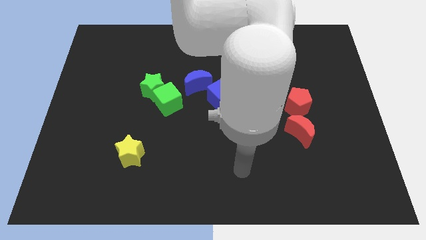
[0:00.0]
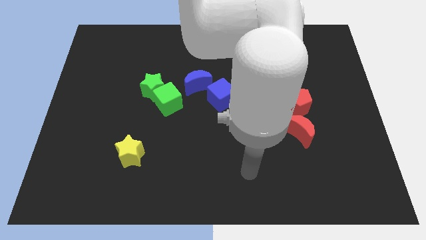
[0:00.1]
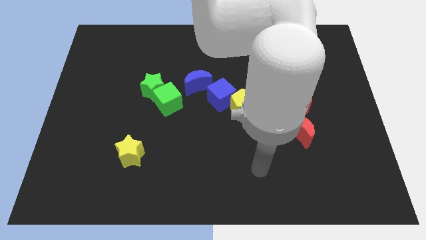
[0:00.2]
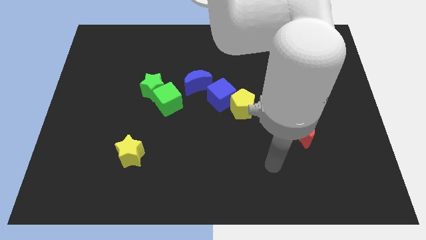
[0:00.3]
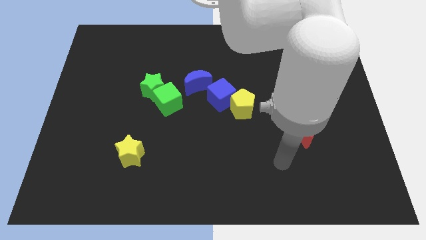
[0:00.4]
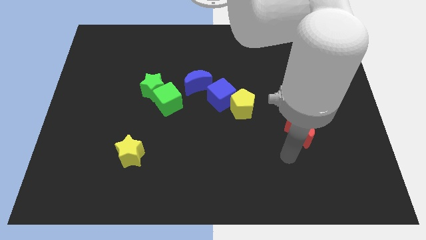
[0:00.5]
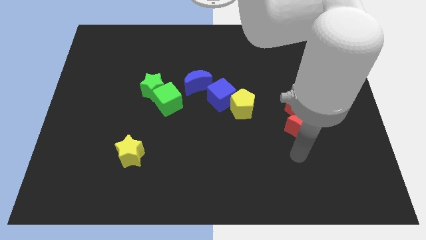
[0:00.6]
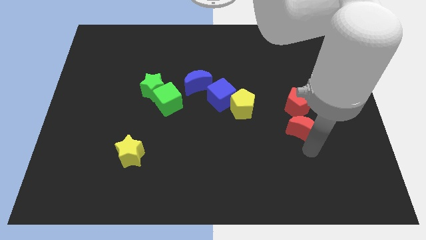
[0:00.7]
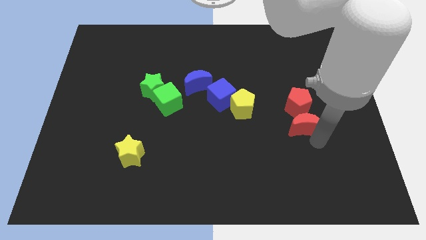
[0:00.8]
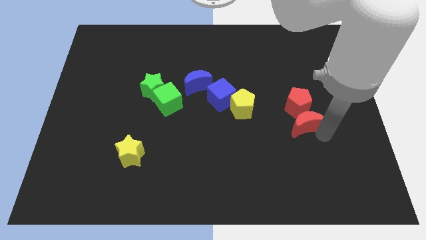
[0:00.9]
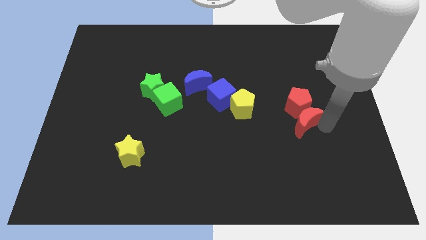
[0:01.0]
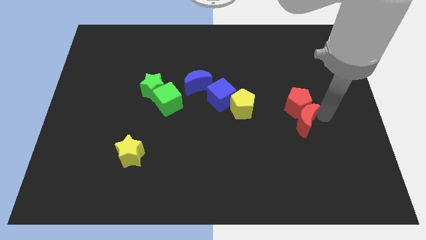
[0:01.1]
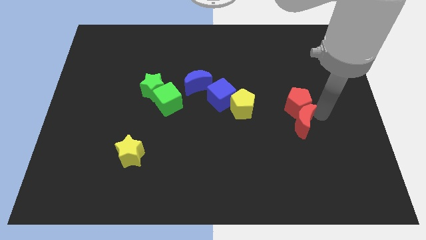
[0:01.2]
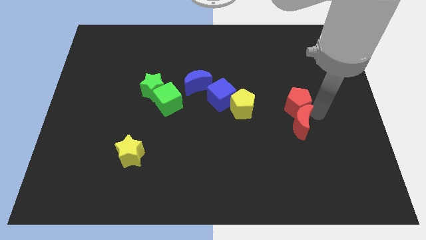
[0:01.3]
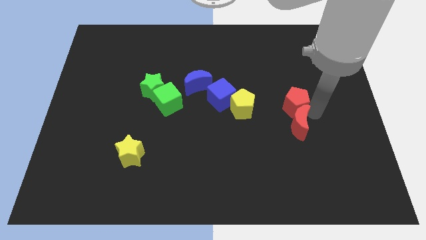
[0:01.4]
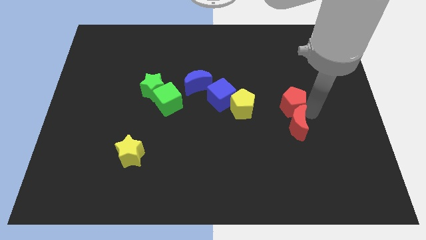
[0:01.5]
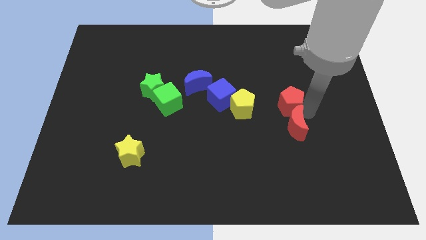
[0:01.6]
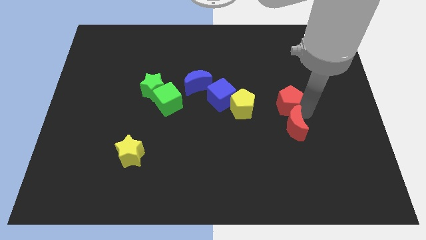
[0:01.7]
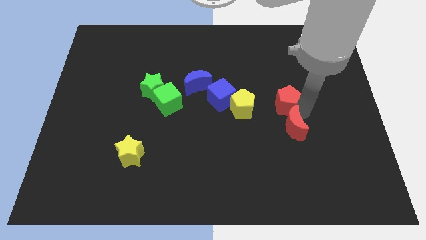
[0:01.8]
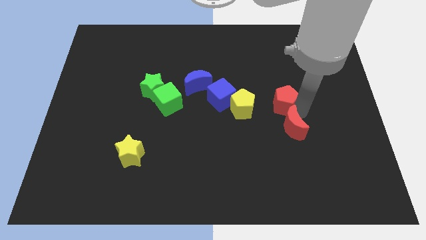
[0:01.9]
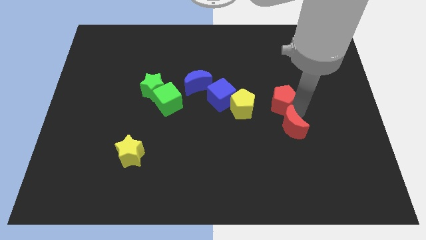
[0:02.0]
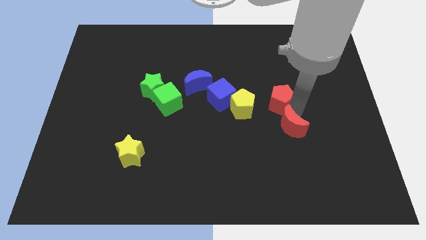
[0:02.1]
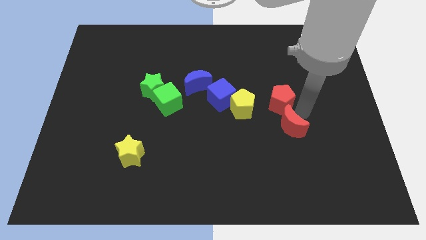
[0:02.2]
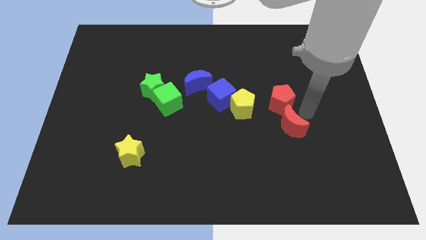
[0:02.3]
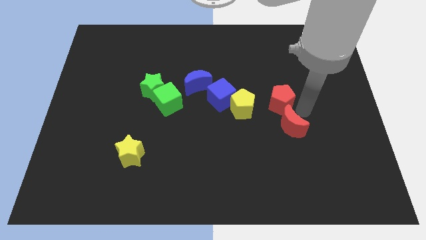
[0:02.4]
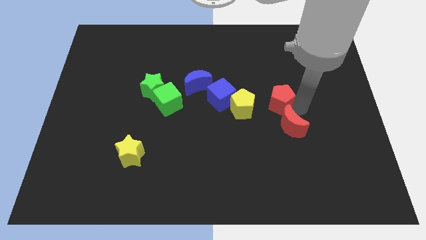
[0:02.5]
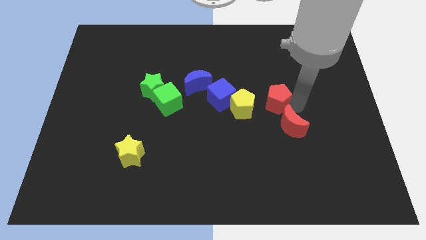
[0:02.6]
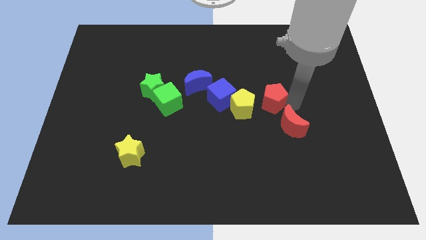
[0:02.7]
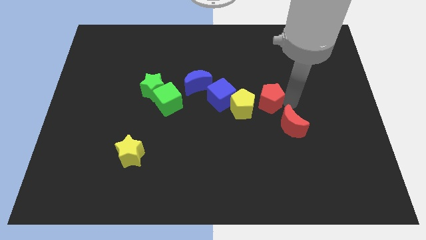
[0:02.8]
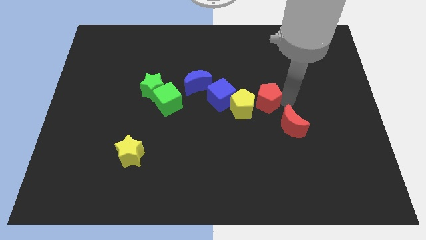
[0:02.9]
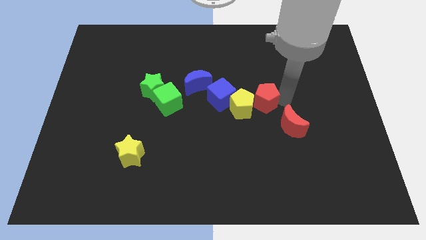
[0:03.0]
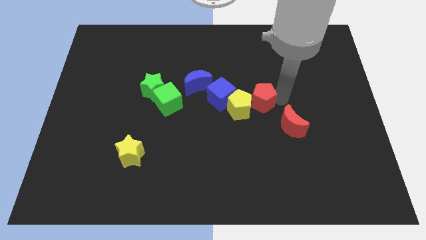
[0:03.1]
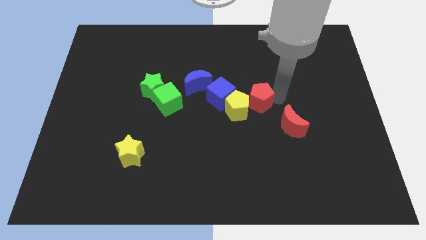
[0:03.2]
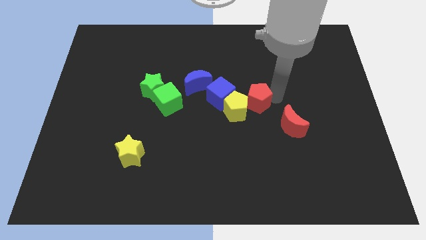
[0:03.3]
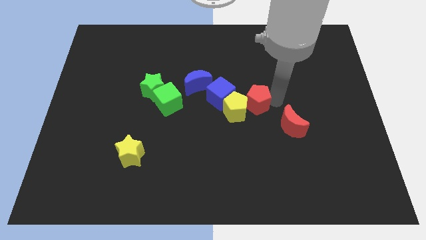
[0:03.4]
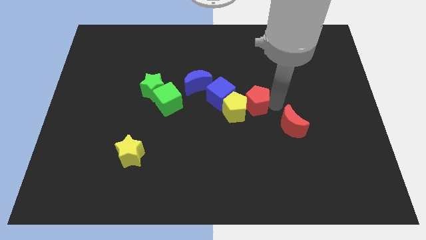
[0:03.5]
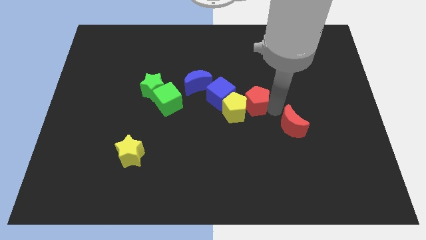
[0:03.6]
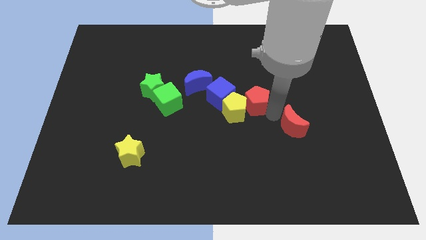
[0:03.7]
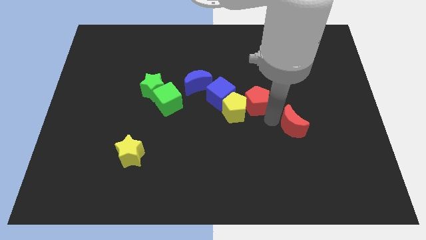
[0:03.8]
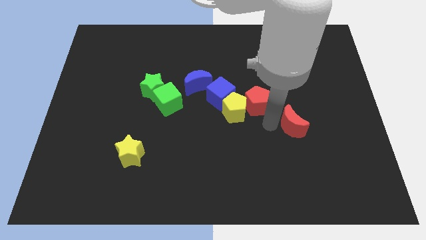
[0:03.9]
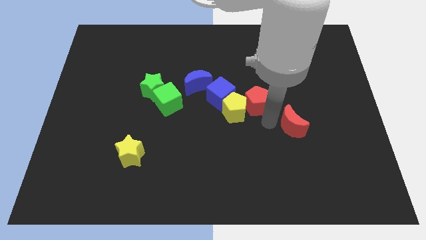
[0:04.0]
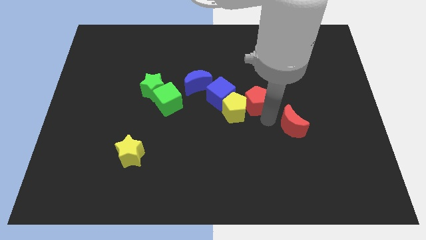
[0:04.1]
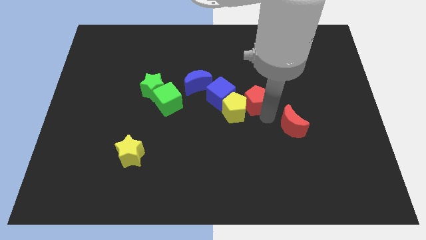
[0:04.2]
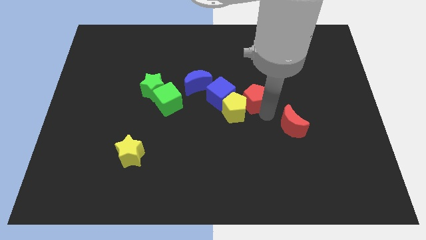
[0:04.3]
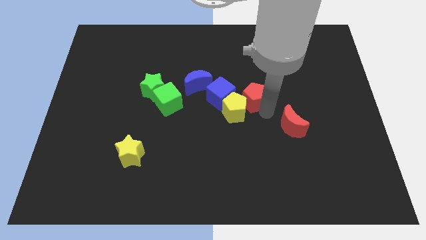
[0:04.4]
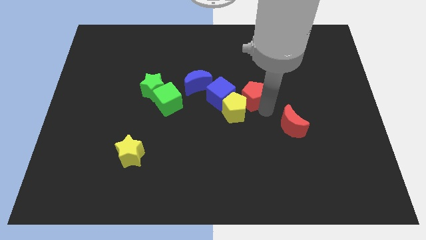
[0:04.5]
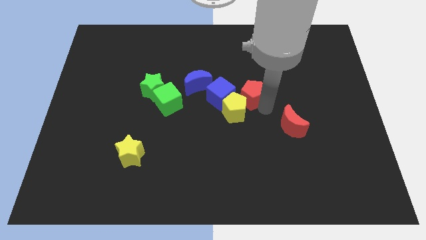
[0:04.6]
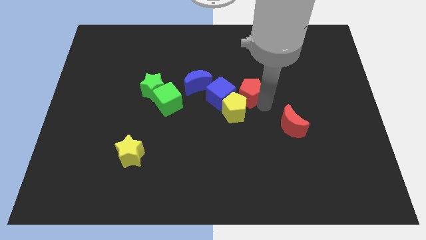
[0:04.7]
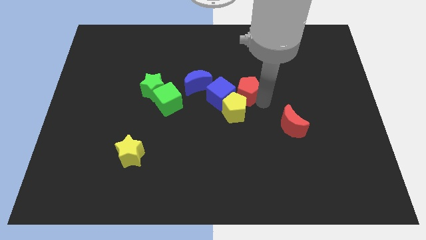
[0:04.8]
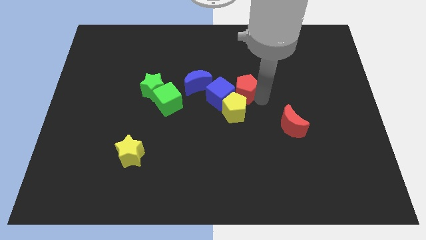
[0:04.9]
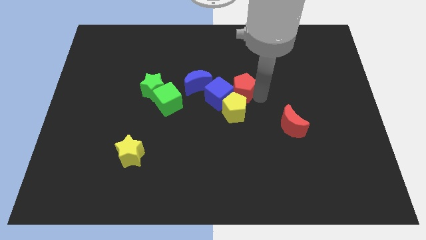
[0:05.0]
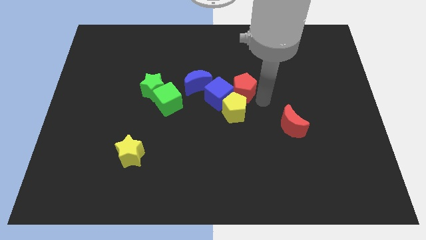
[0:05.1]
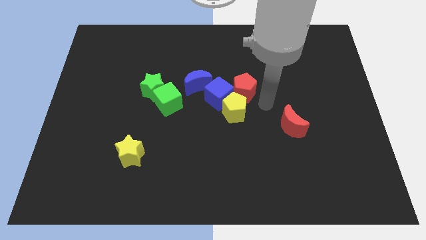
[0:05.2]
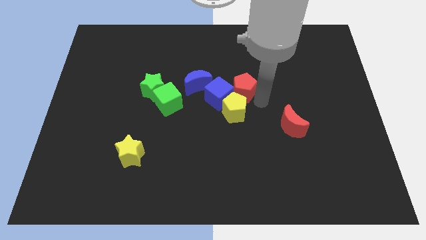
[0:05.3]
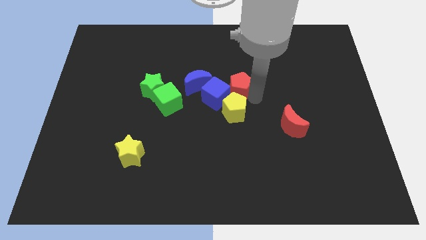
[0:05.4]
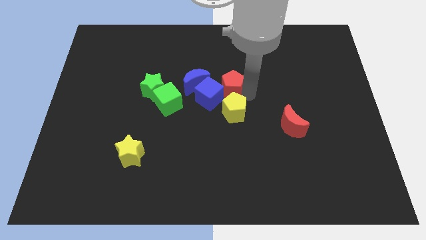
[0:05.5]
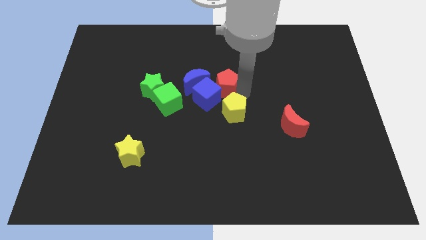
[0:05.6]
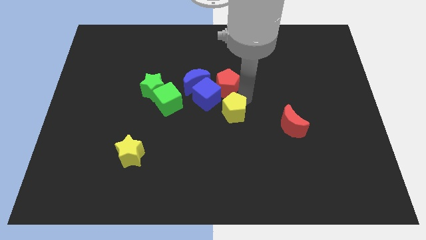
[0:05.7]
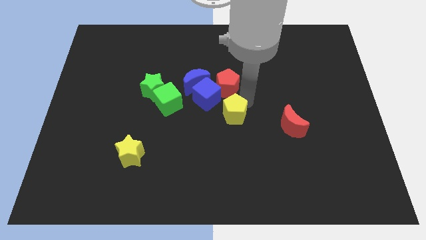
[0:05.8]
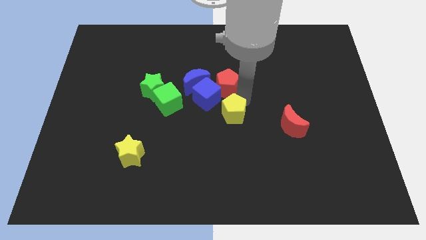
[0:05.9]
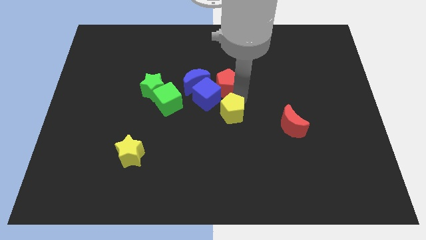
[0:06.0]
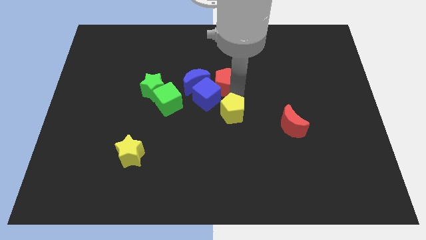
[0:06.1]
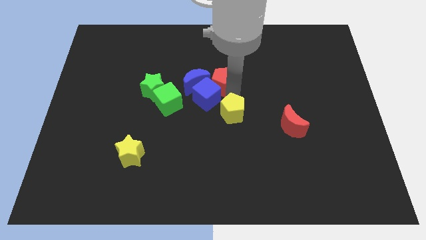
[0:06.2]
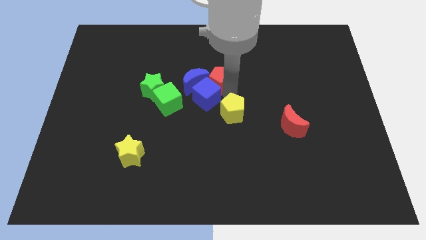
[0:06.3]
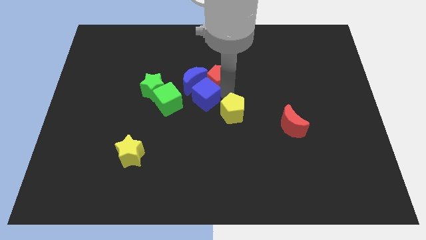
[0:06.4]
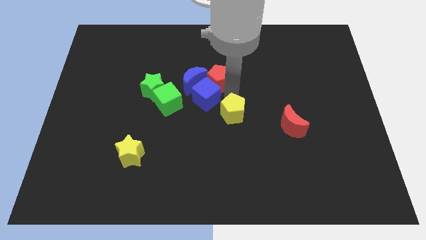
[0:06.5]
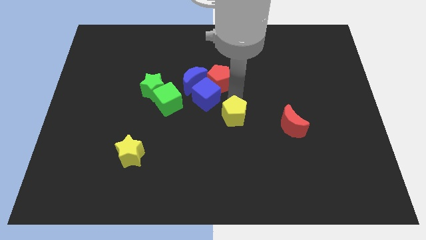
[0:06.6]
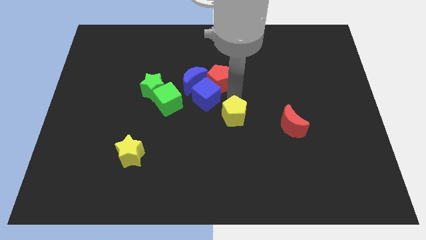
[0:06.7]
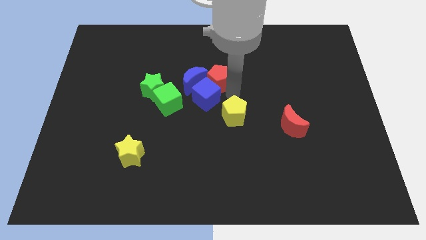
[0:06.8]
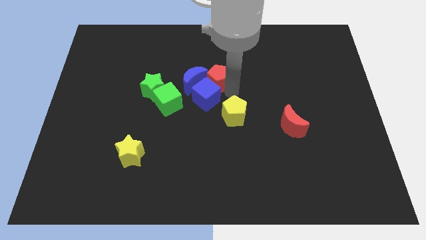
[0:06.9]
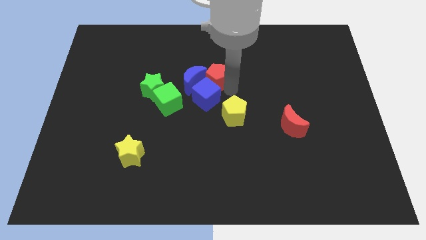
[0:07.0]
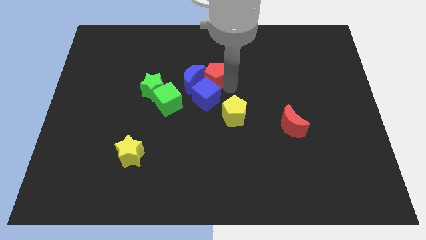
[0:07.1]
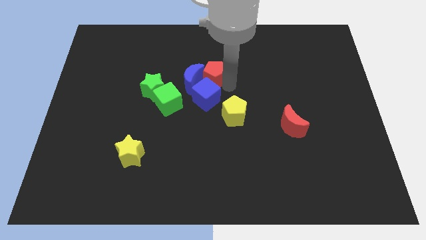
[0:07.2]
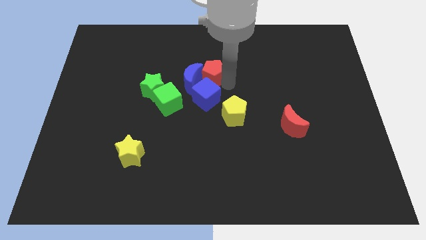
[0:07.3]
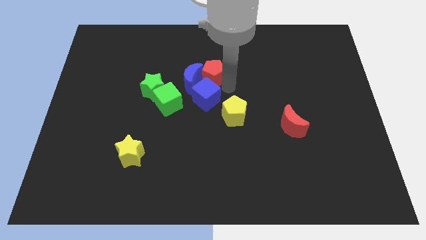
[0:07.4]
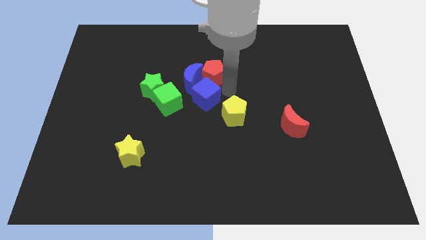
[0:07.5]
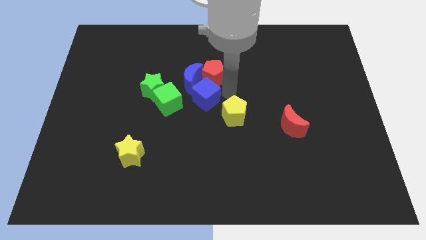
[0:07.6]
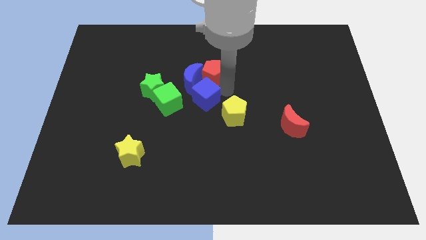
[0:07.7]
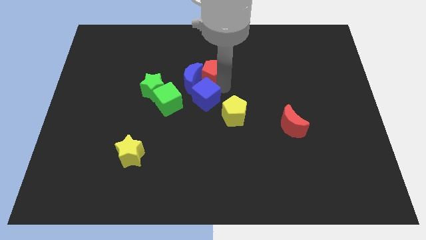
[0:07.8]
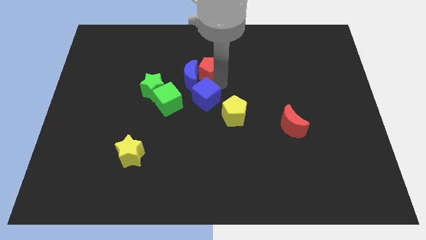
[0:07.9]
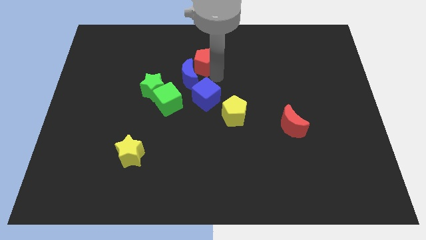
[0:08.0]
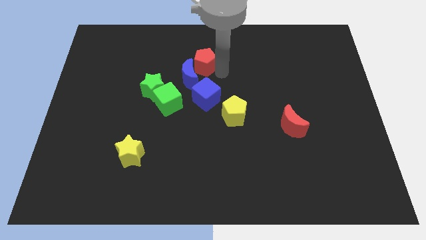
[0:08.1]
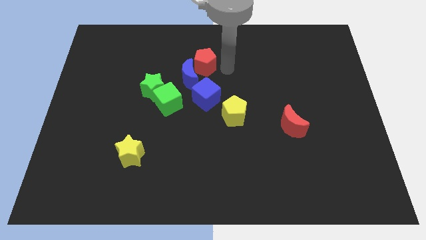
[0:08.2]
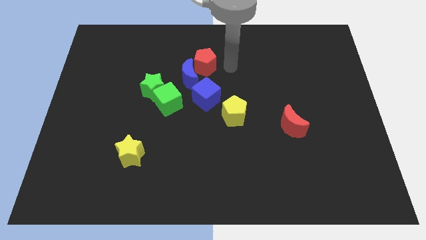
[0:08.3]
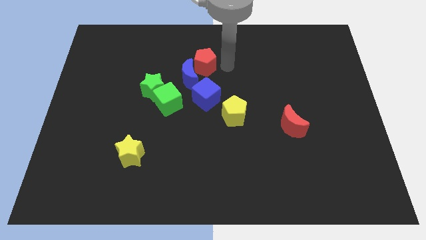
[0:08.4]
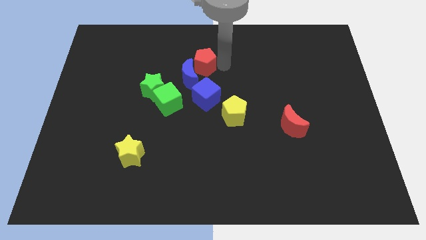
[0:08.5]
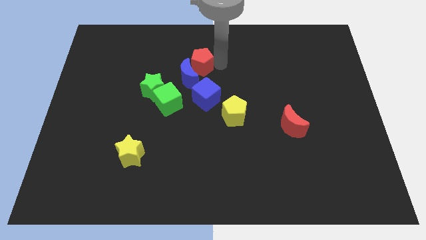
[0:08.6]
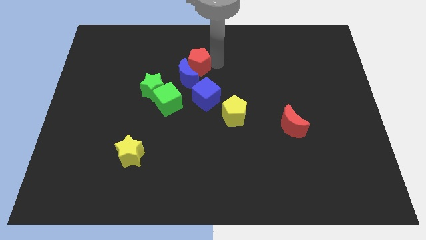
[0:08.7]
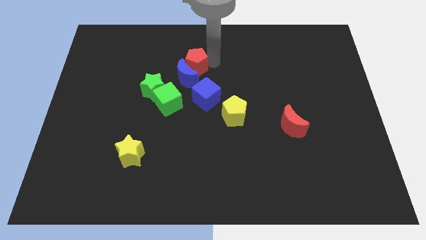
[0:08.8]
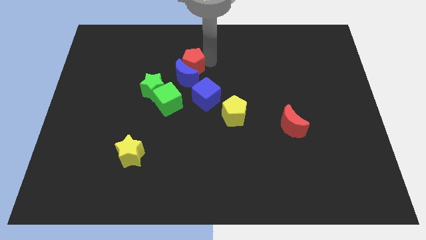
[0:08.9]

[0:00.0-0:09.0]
move the red pentagon diagonally up and to the left of the blue moon
